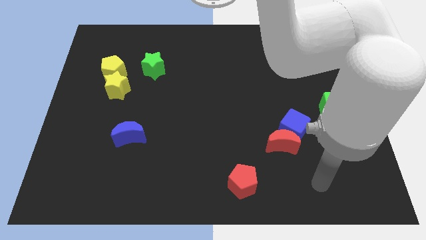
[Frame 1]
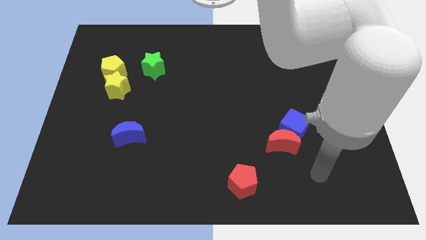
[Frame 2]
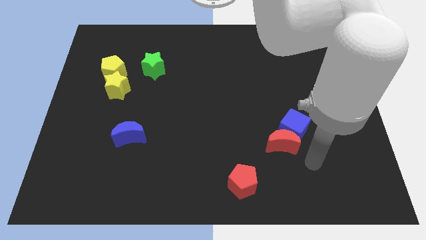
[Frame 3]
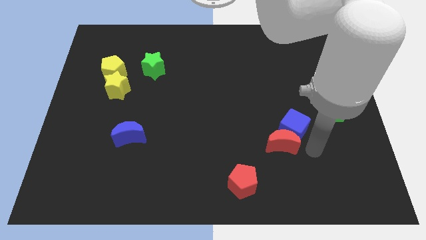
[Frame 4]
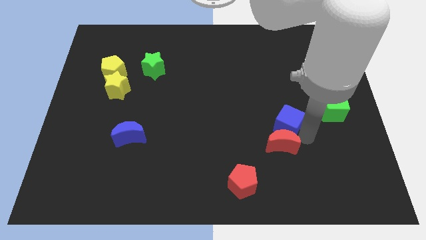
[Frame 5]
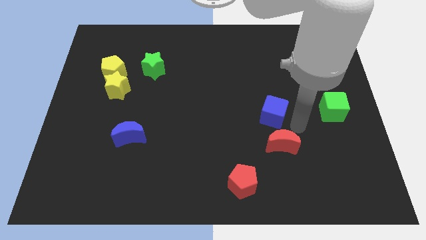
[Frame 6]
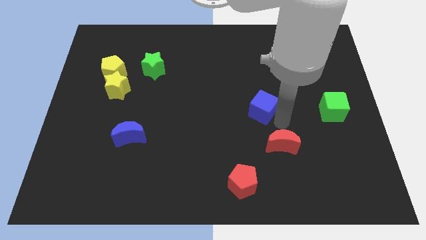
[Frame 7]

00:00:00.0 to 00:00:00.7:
separate the red moon from the blue cube

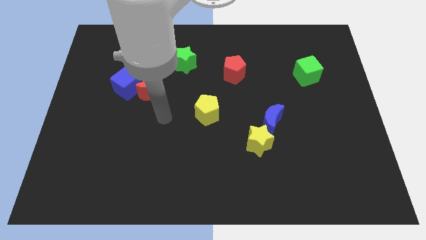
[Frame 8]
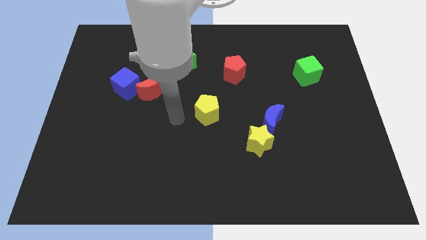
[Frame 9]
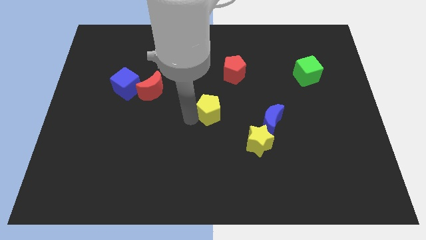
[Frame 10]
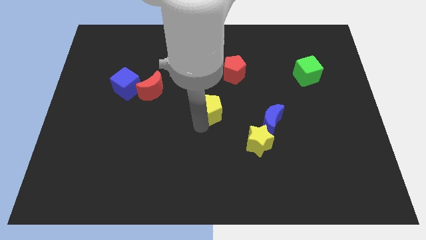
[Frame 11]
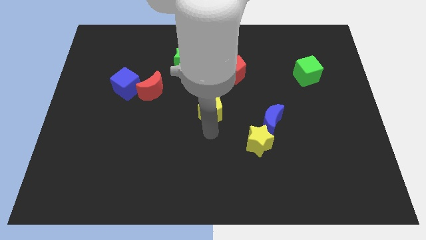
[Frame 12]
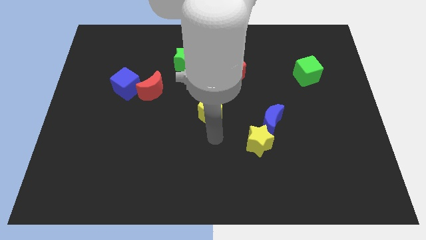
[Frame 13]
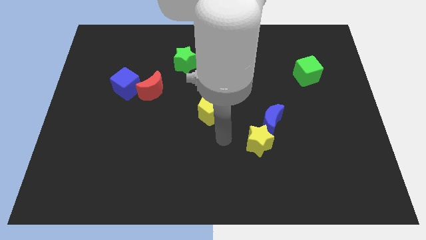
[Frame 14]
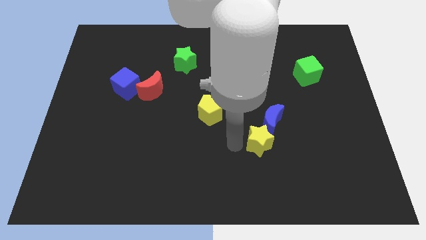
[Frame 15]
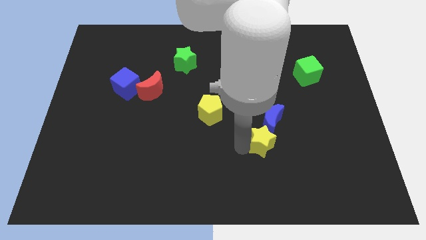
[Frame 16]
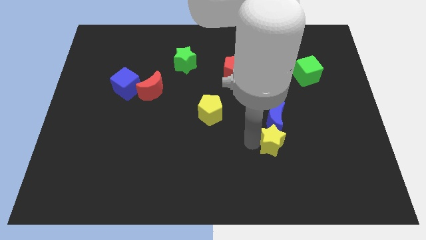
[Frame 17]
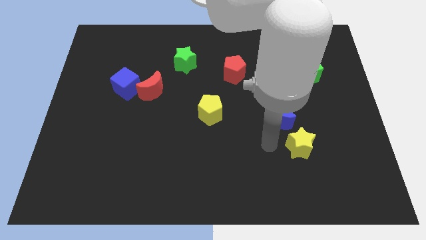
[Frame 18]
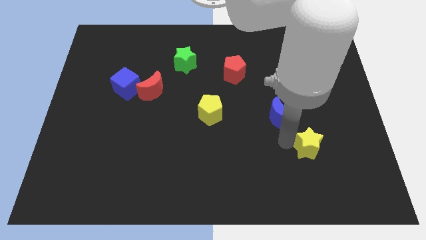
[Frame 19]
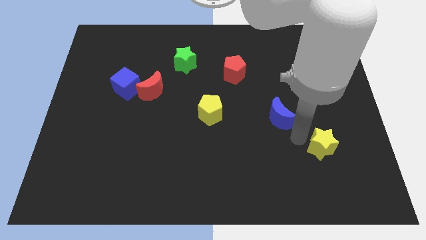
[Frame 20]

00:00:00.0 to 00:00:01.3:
separate the blue moon from the yellow star

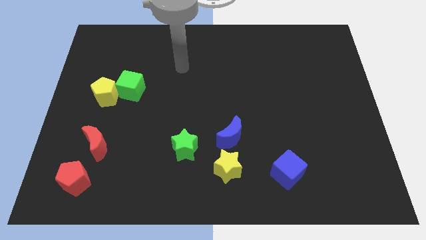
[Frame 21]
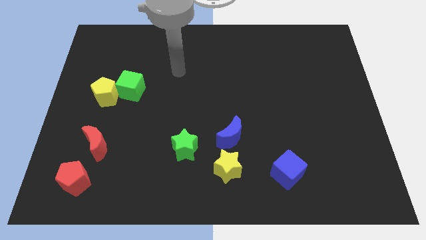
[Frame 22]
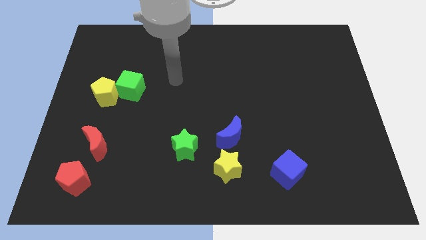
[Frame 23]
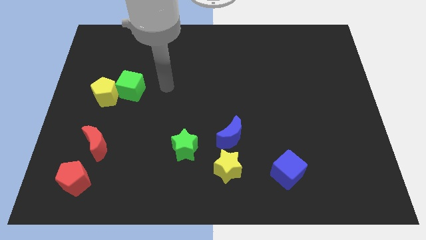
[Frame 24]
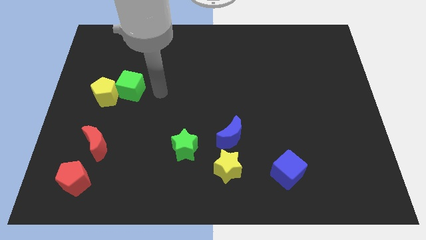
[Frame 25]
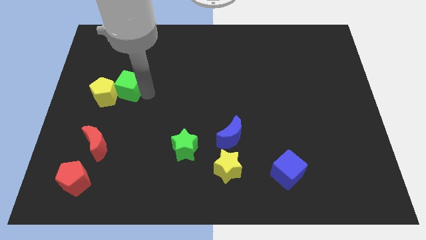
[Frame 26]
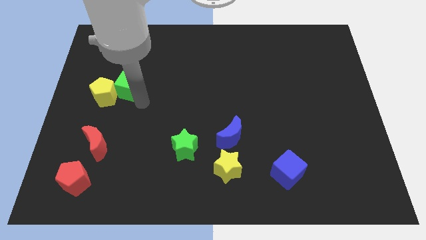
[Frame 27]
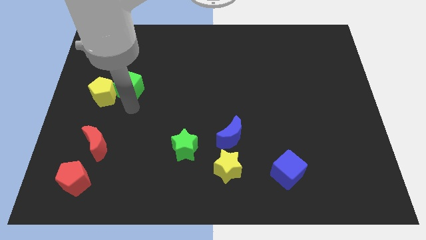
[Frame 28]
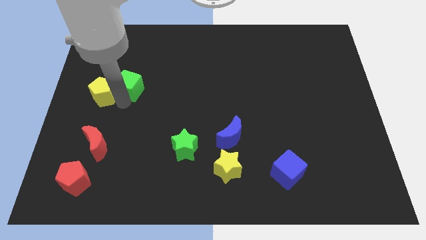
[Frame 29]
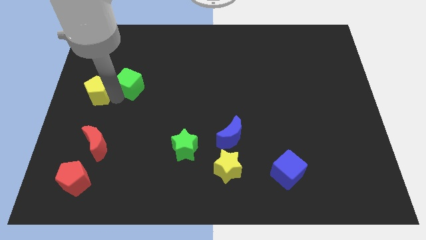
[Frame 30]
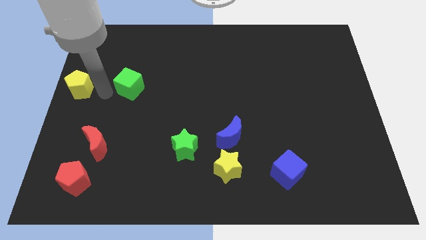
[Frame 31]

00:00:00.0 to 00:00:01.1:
move the green cube away from the yellow pentagon

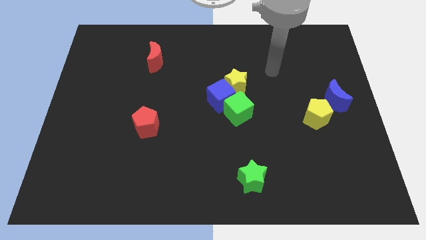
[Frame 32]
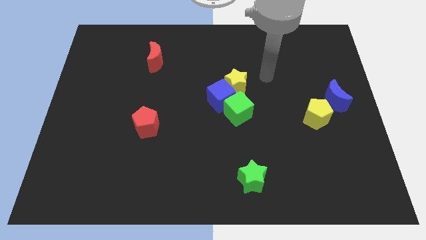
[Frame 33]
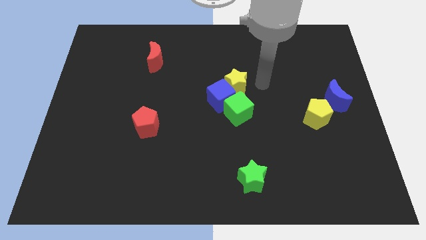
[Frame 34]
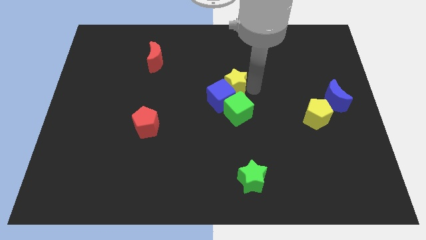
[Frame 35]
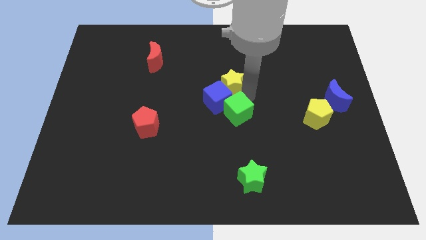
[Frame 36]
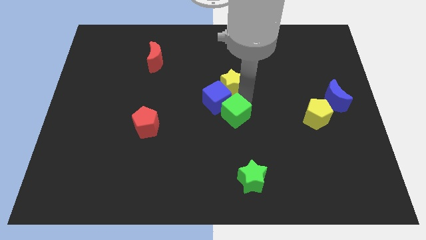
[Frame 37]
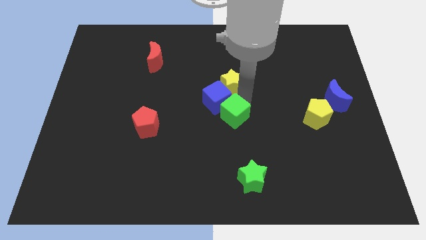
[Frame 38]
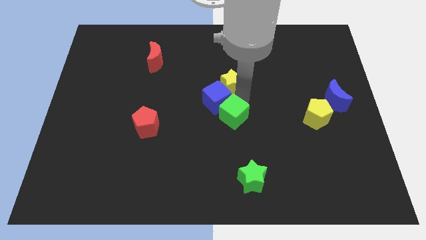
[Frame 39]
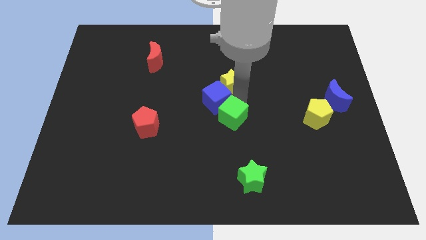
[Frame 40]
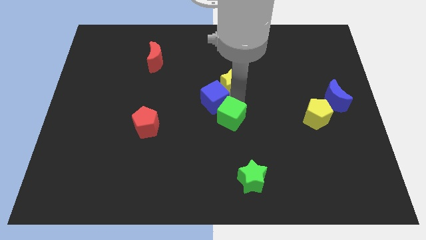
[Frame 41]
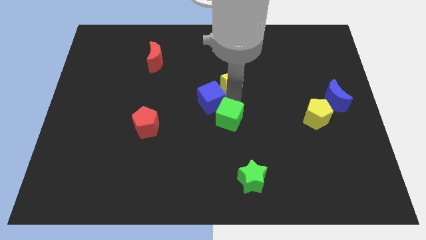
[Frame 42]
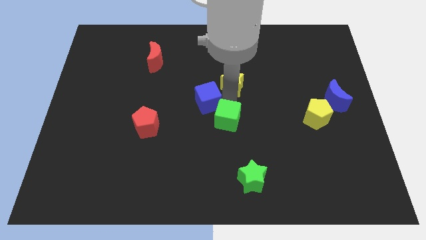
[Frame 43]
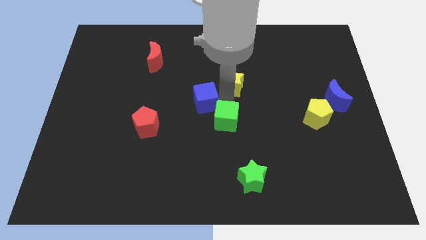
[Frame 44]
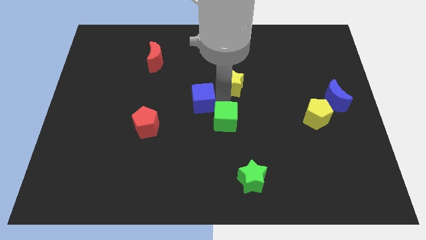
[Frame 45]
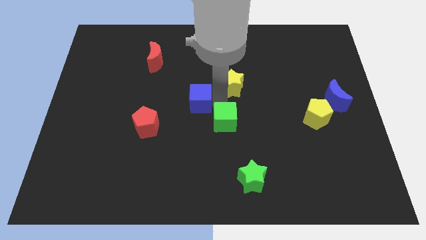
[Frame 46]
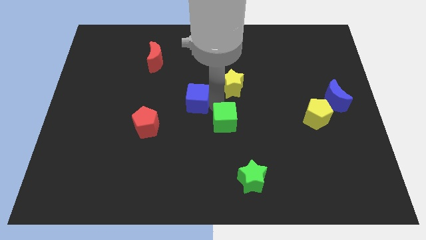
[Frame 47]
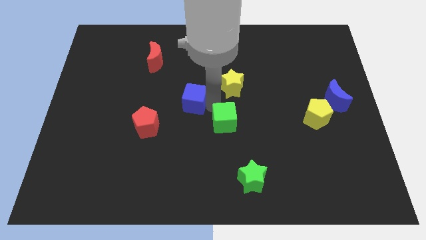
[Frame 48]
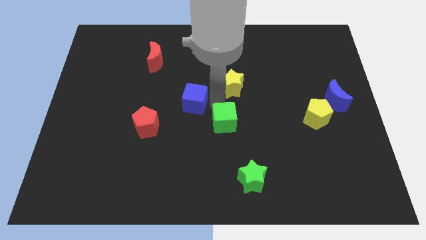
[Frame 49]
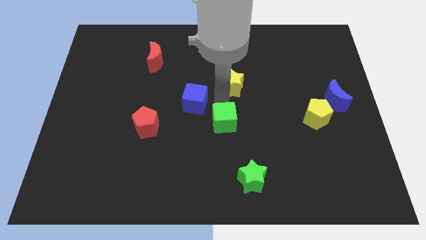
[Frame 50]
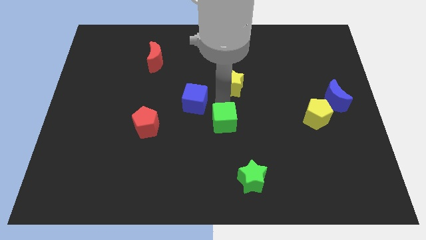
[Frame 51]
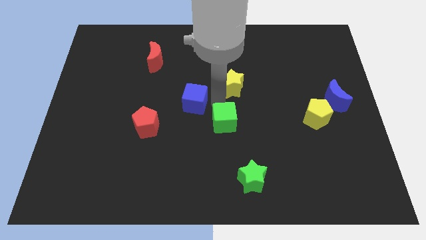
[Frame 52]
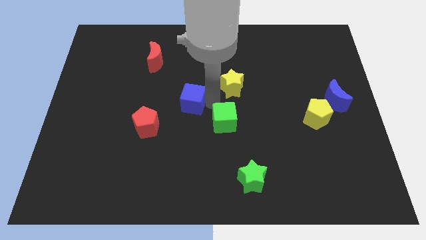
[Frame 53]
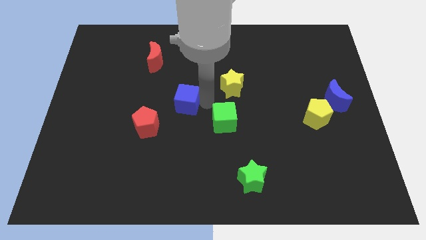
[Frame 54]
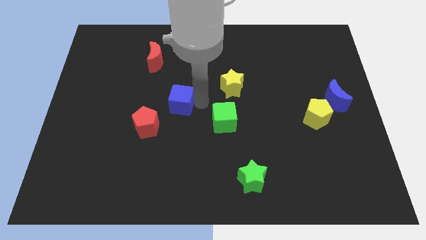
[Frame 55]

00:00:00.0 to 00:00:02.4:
separate the blue cube from the green cube and yellow star

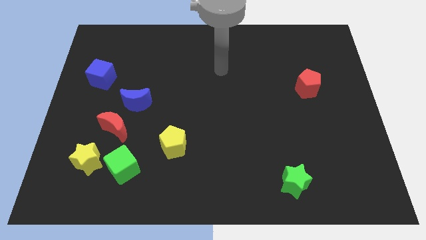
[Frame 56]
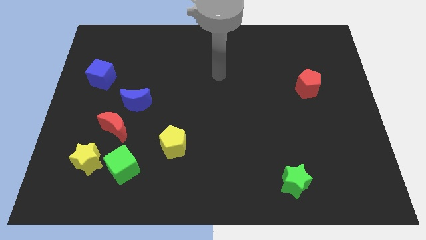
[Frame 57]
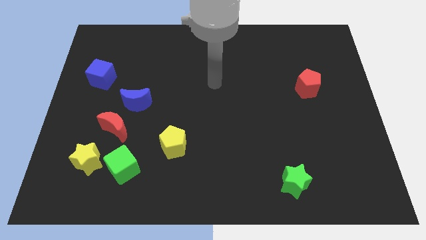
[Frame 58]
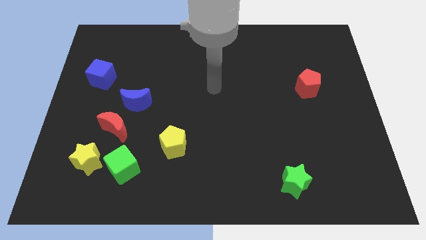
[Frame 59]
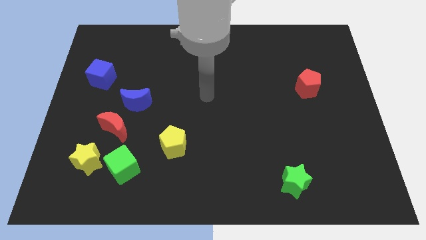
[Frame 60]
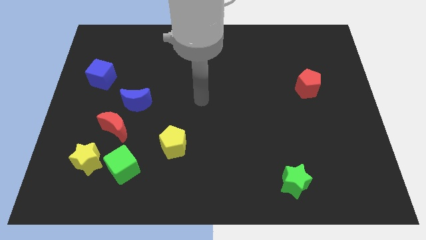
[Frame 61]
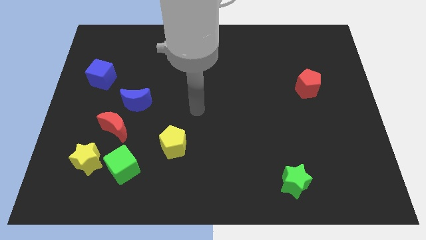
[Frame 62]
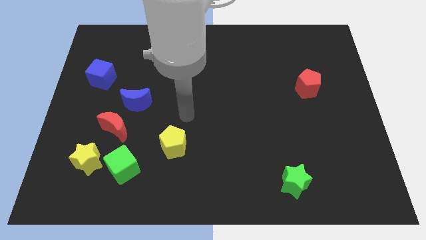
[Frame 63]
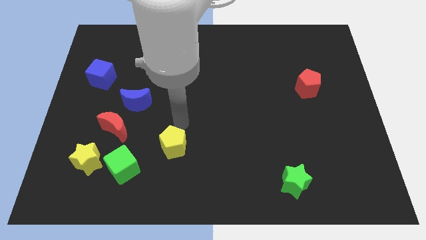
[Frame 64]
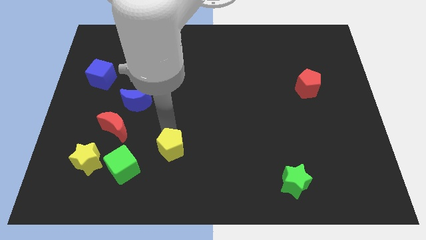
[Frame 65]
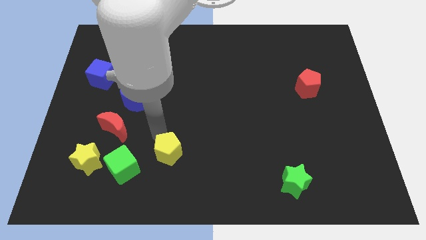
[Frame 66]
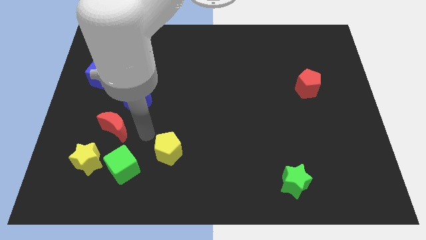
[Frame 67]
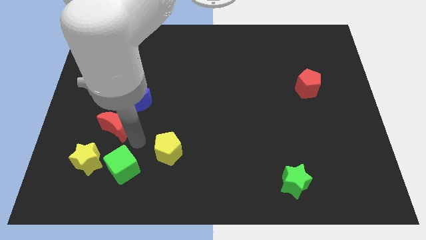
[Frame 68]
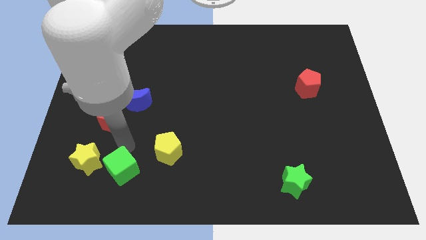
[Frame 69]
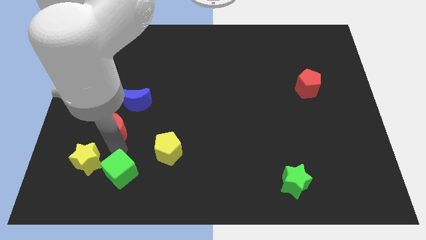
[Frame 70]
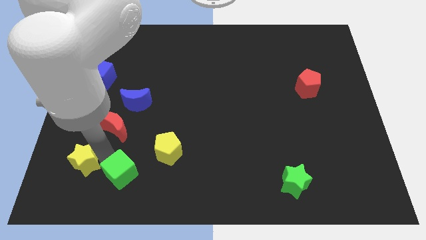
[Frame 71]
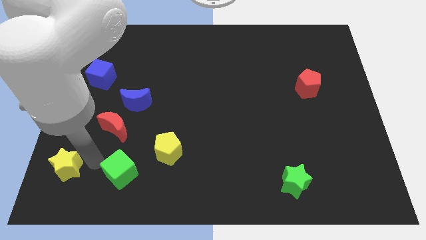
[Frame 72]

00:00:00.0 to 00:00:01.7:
separate the green cube from the yellow star

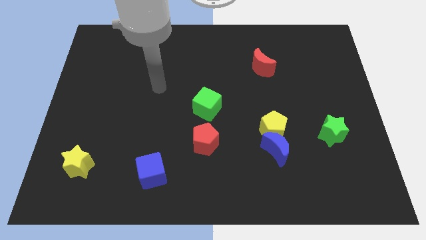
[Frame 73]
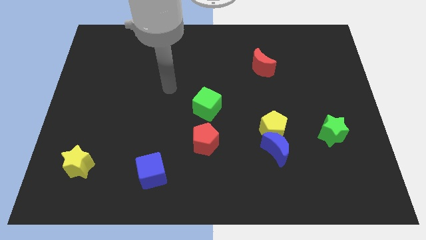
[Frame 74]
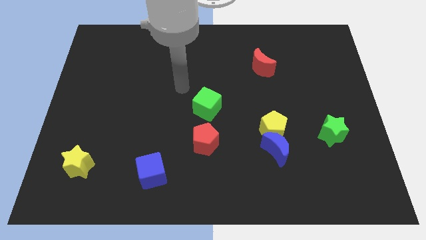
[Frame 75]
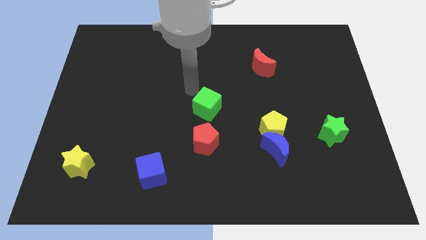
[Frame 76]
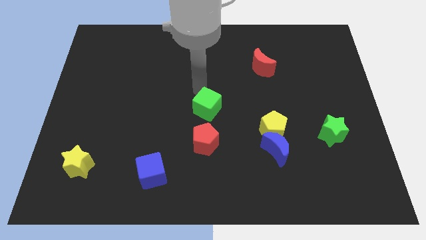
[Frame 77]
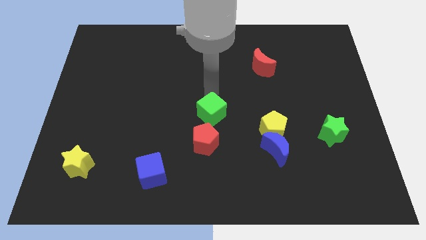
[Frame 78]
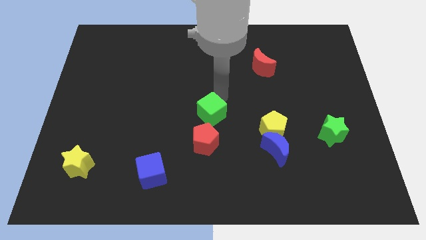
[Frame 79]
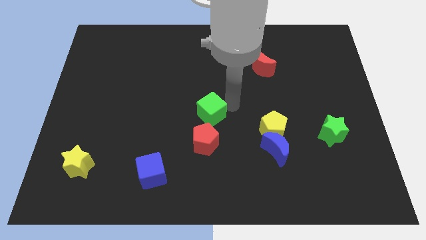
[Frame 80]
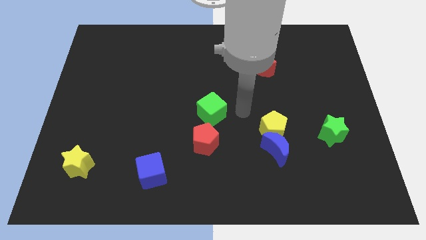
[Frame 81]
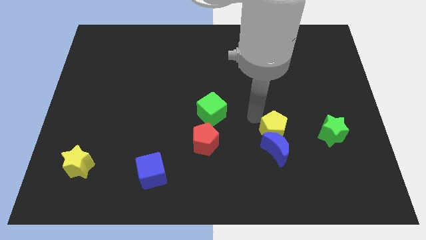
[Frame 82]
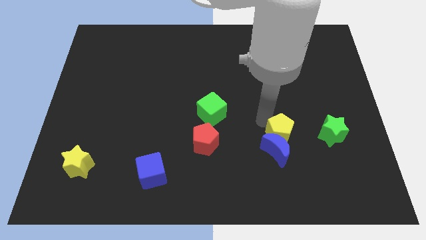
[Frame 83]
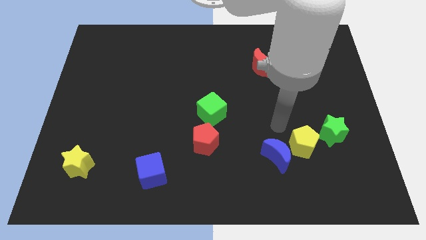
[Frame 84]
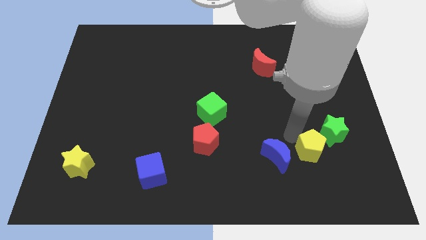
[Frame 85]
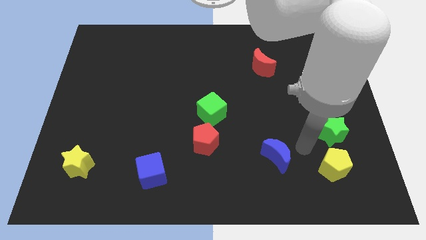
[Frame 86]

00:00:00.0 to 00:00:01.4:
move the blue moon away from the yellow pentagon

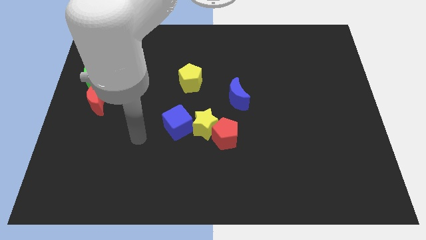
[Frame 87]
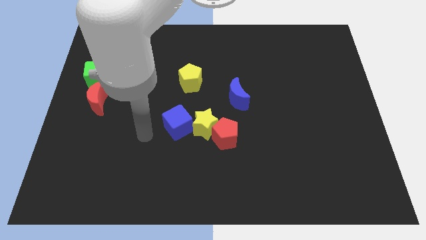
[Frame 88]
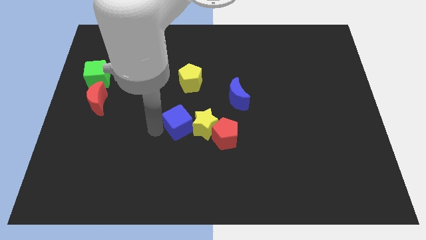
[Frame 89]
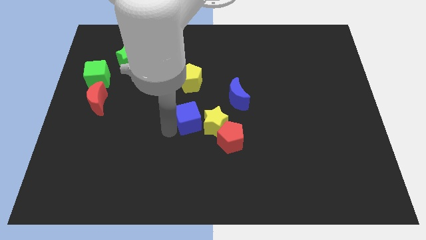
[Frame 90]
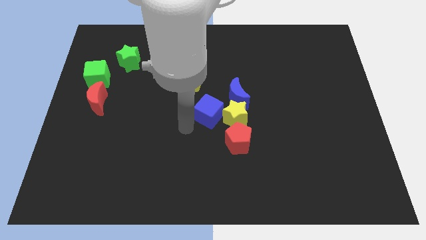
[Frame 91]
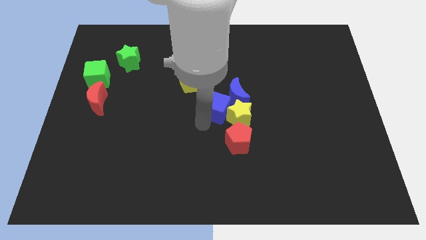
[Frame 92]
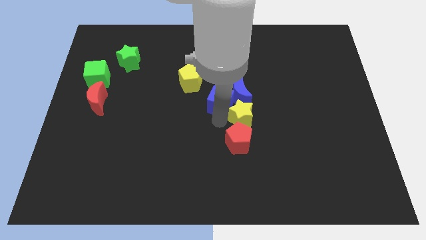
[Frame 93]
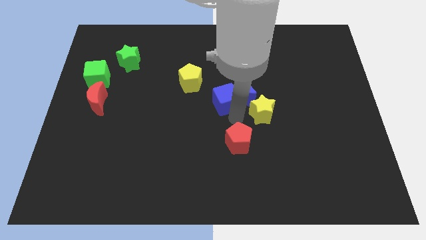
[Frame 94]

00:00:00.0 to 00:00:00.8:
separate the red pentagon from the yellow star

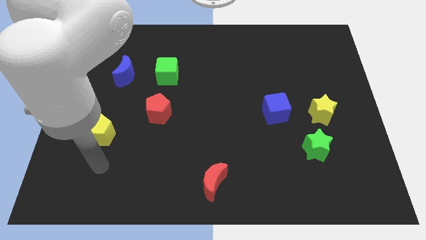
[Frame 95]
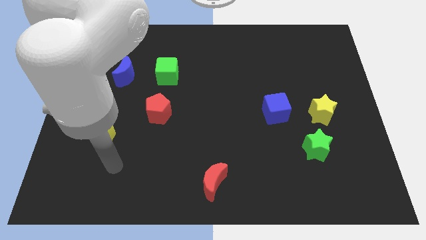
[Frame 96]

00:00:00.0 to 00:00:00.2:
pull the green star apart from the yellow star
